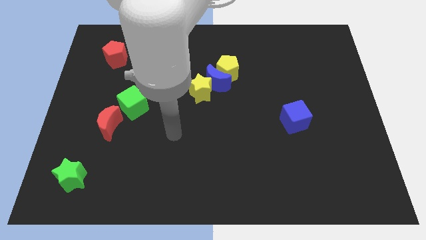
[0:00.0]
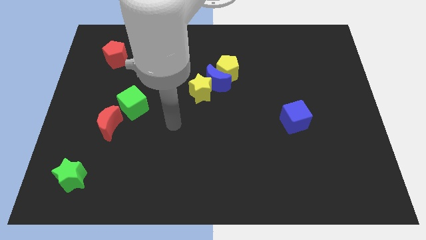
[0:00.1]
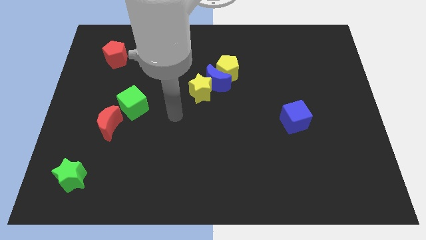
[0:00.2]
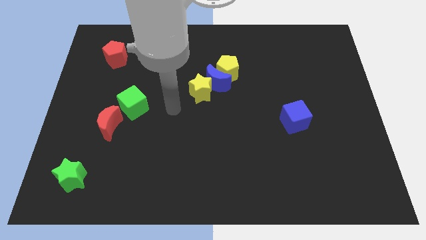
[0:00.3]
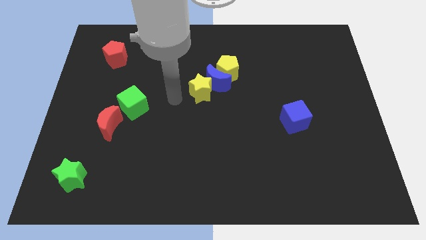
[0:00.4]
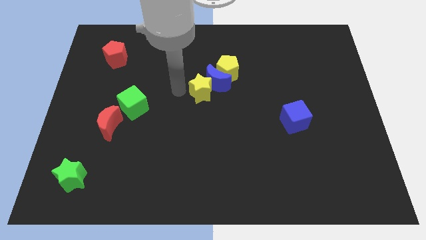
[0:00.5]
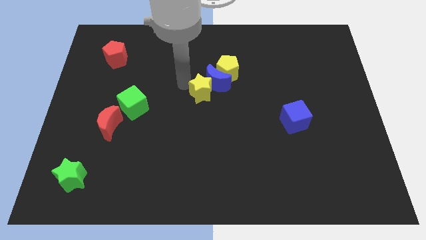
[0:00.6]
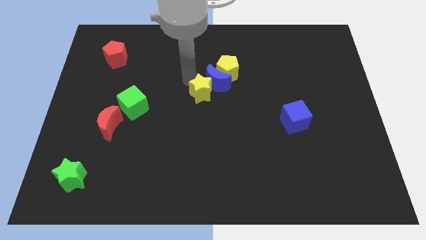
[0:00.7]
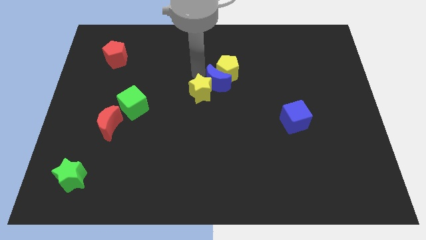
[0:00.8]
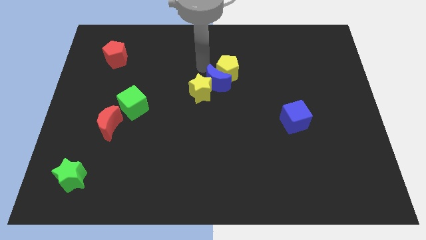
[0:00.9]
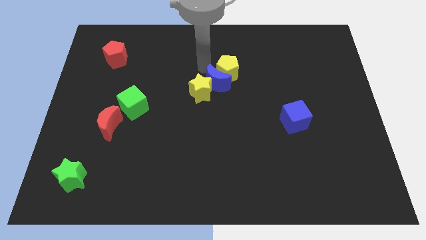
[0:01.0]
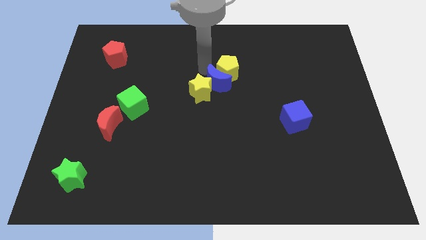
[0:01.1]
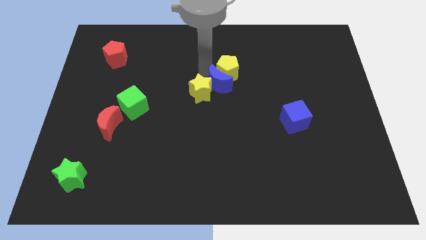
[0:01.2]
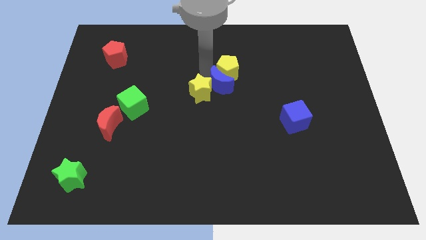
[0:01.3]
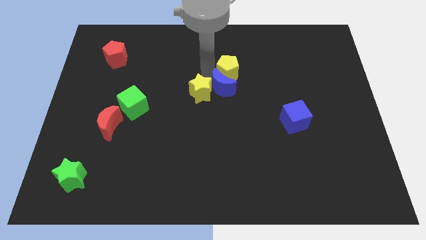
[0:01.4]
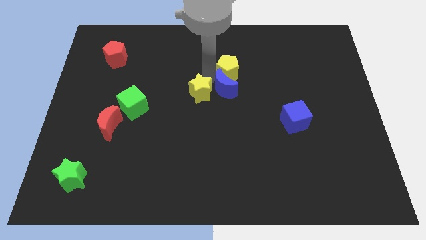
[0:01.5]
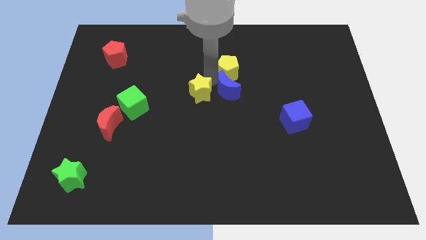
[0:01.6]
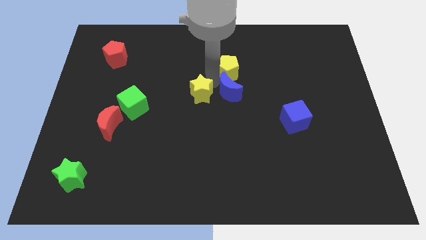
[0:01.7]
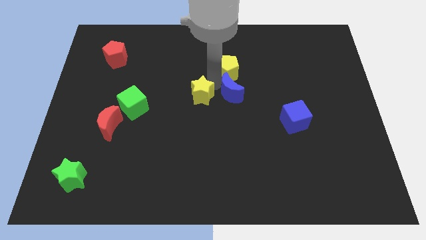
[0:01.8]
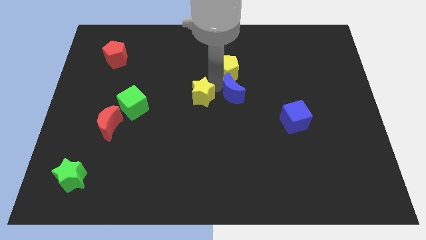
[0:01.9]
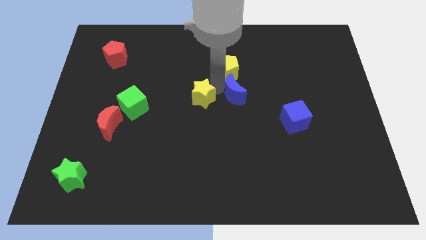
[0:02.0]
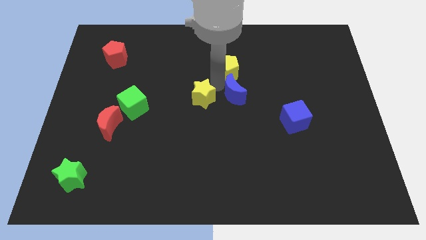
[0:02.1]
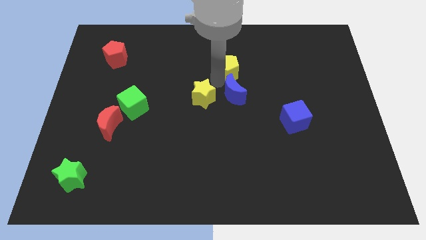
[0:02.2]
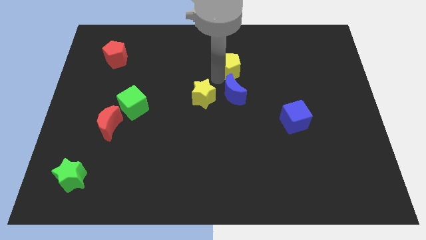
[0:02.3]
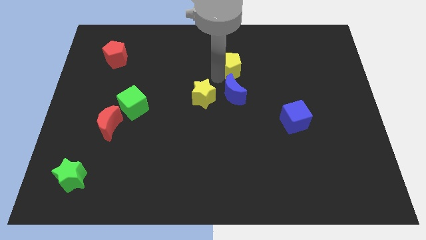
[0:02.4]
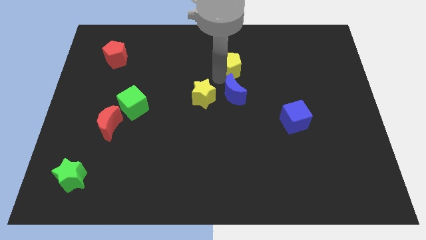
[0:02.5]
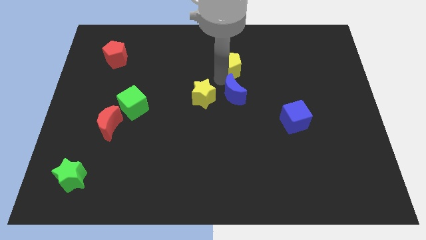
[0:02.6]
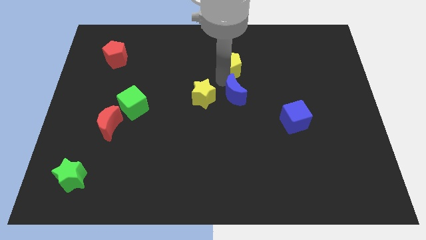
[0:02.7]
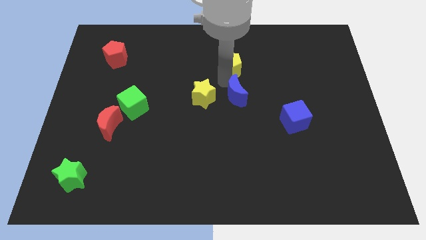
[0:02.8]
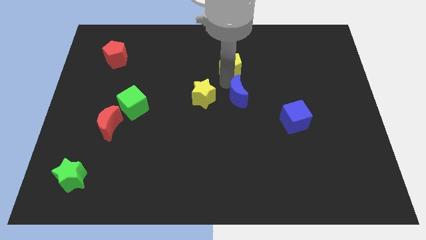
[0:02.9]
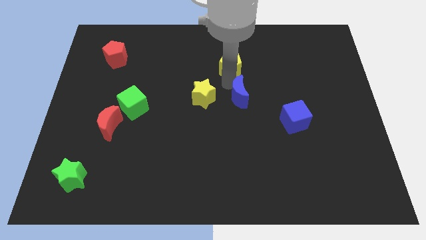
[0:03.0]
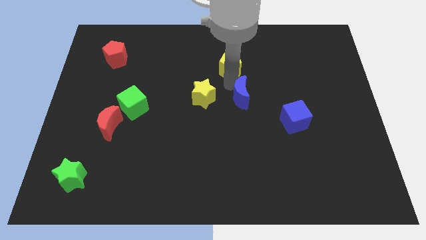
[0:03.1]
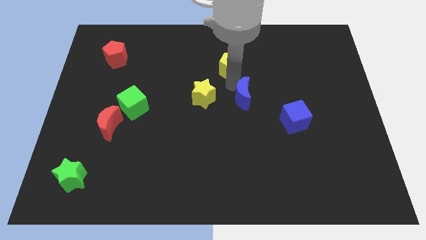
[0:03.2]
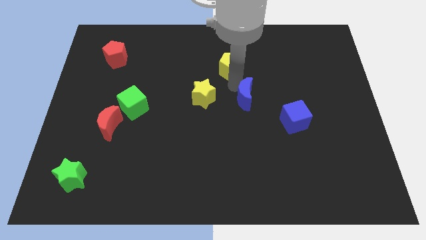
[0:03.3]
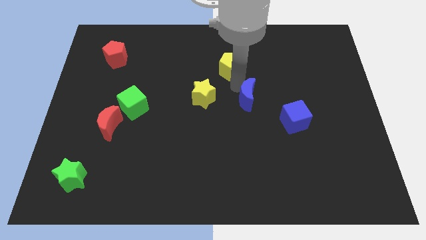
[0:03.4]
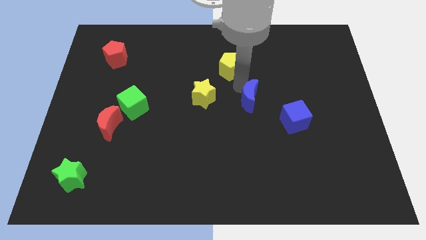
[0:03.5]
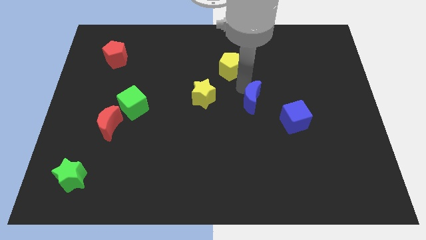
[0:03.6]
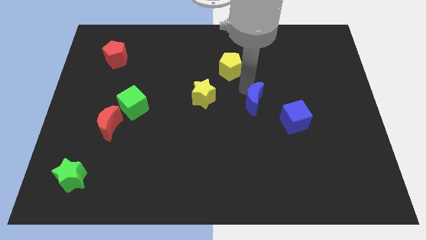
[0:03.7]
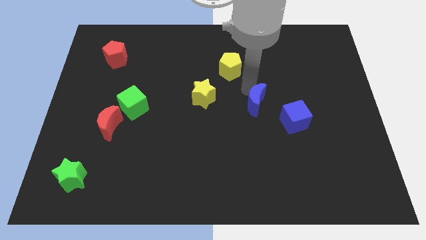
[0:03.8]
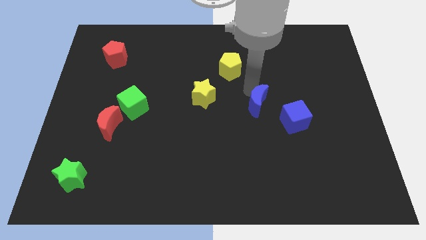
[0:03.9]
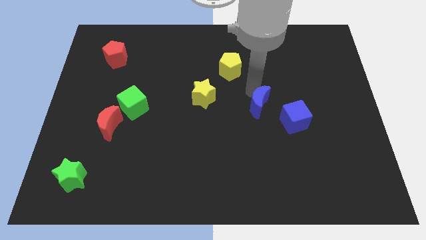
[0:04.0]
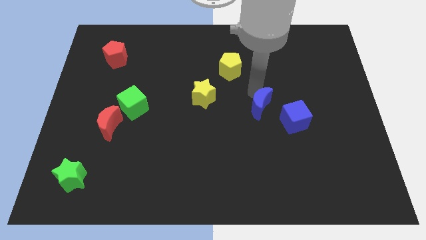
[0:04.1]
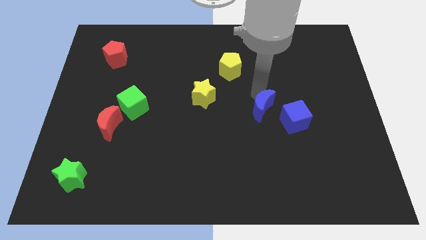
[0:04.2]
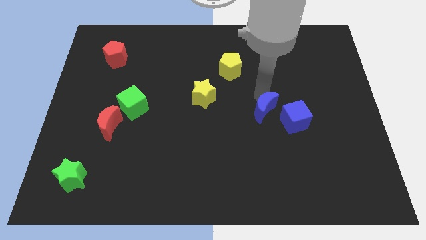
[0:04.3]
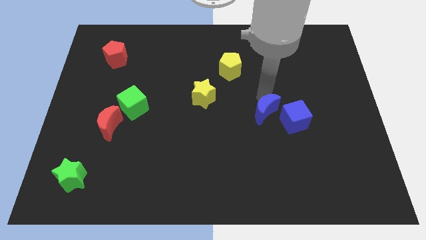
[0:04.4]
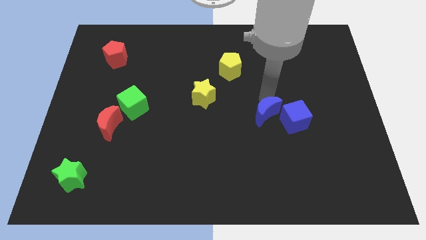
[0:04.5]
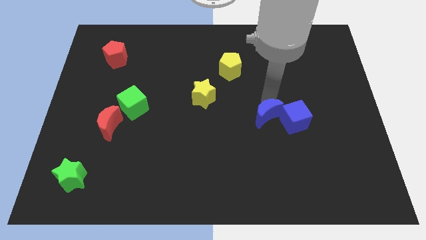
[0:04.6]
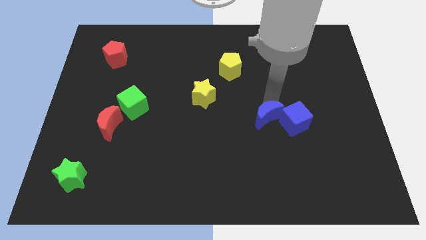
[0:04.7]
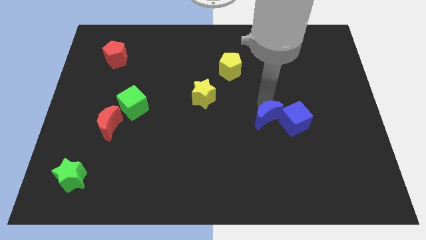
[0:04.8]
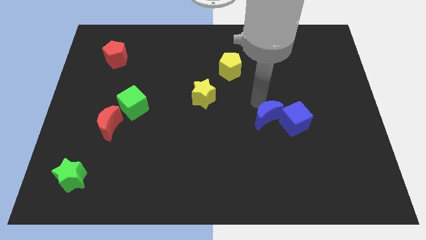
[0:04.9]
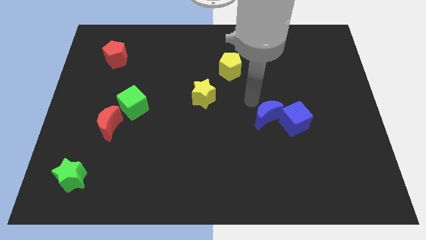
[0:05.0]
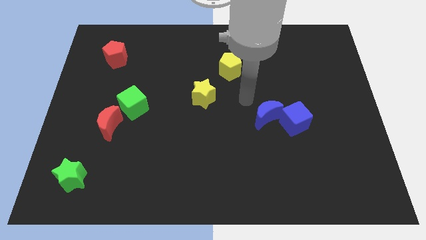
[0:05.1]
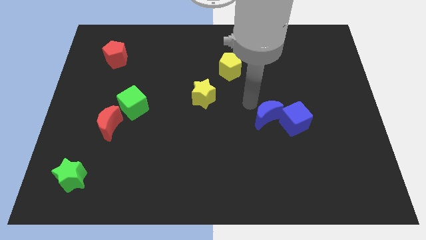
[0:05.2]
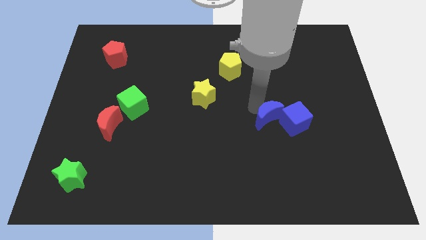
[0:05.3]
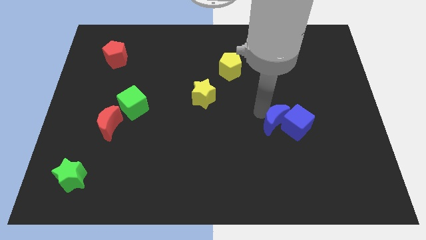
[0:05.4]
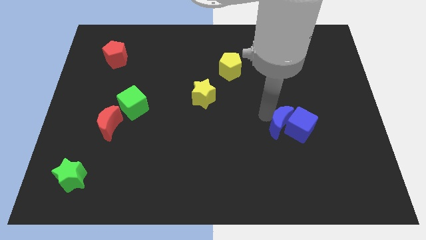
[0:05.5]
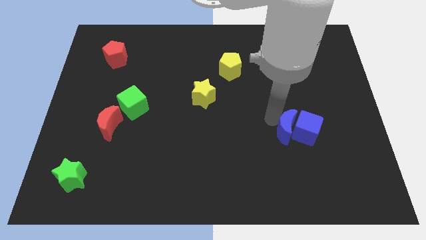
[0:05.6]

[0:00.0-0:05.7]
slide the blue moon diagonally downwards and right

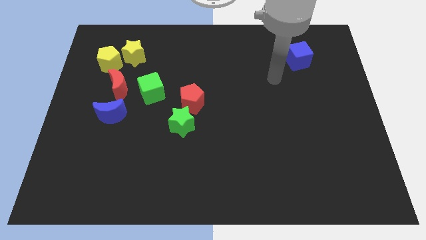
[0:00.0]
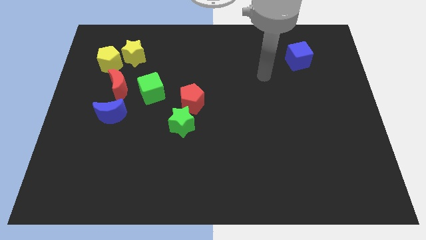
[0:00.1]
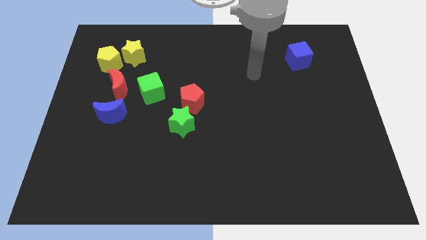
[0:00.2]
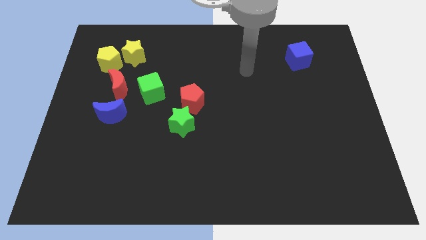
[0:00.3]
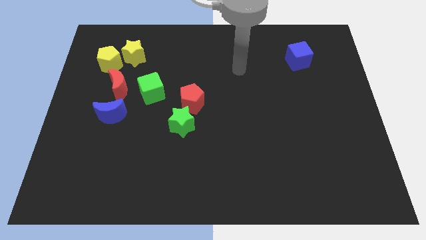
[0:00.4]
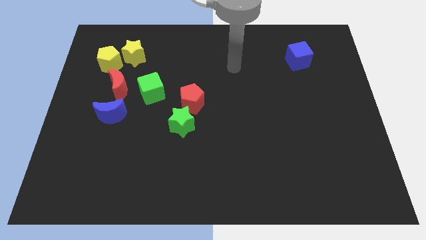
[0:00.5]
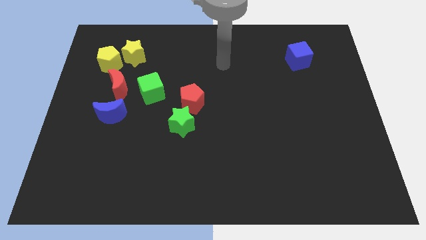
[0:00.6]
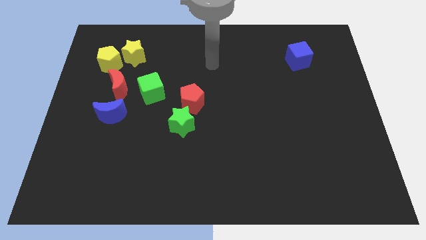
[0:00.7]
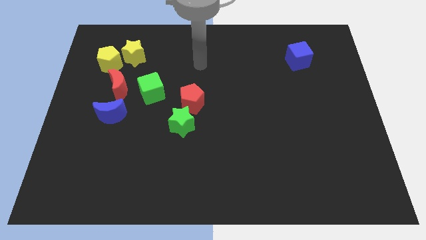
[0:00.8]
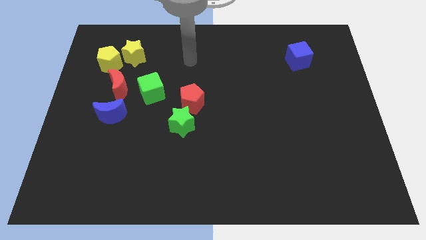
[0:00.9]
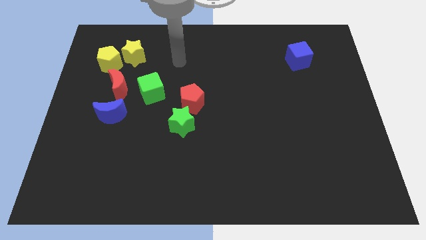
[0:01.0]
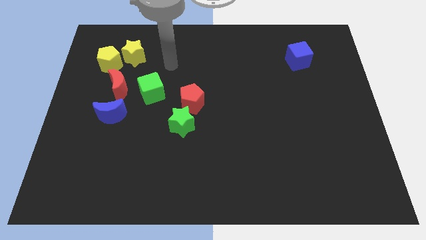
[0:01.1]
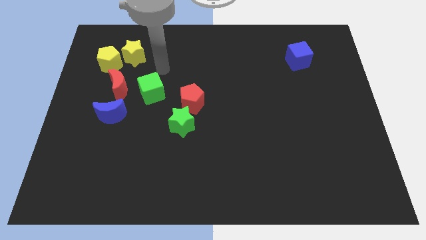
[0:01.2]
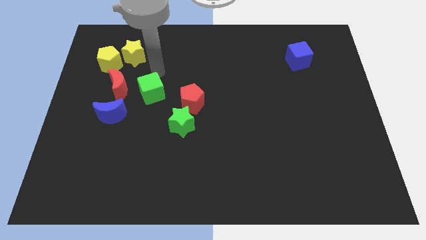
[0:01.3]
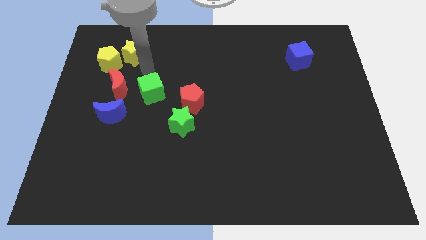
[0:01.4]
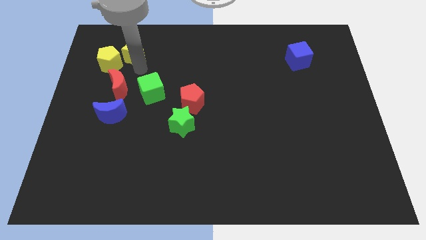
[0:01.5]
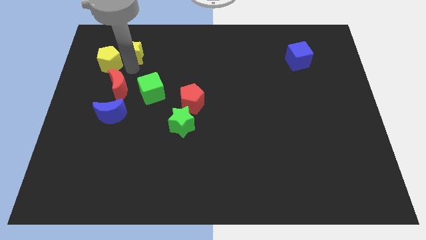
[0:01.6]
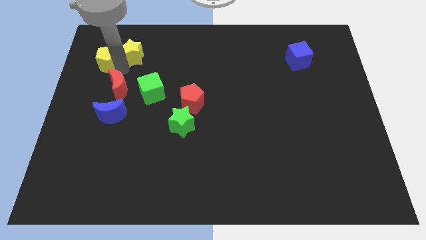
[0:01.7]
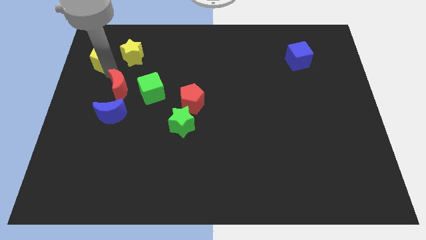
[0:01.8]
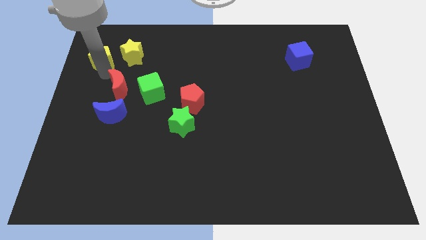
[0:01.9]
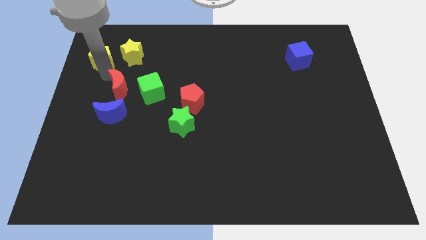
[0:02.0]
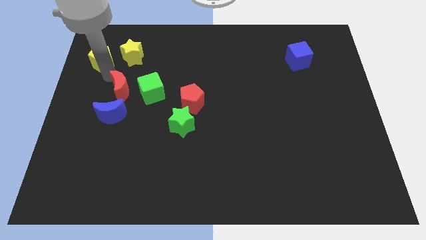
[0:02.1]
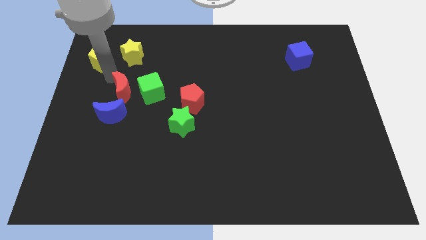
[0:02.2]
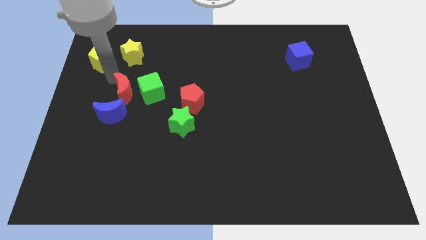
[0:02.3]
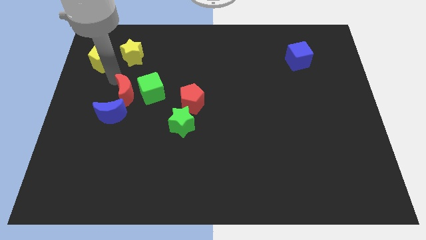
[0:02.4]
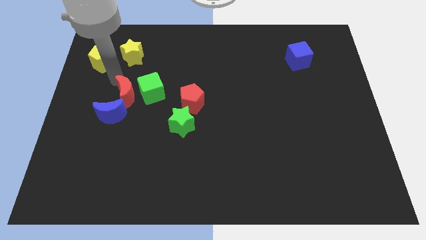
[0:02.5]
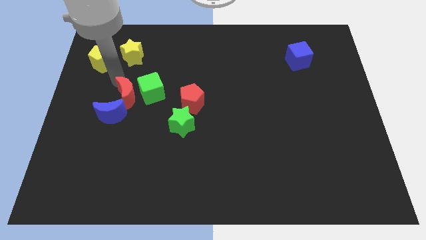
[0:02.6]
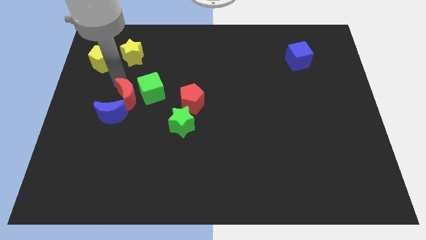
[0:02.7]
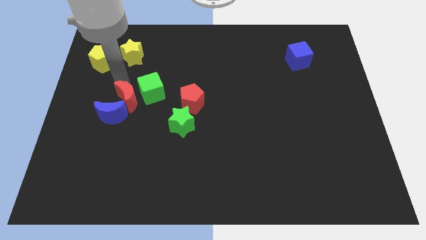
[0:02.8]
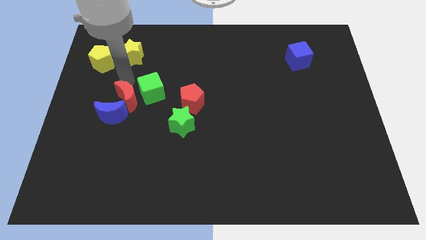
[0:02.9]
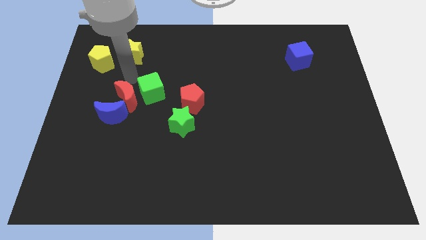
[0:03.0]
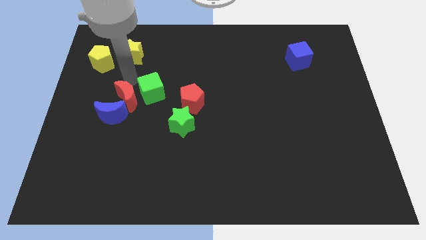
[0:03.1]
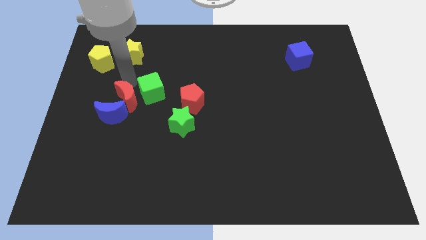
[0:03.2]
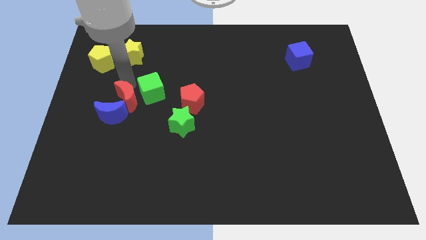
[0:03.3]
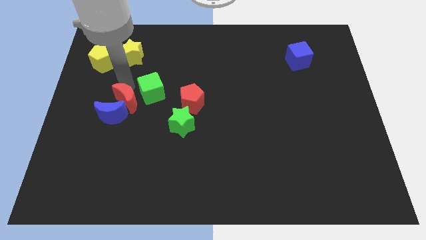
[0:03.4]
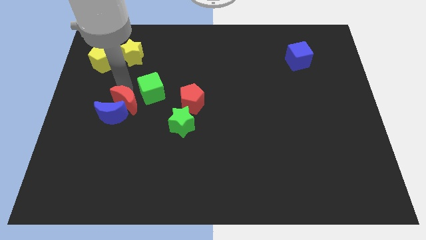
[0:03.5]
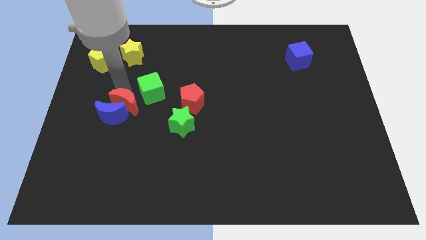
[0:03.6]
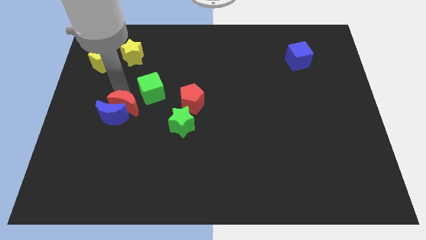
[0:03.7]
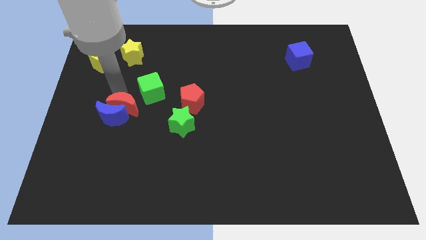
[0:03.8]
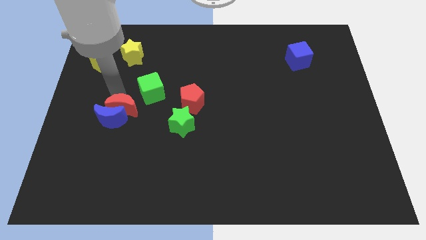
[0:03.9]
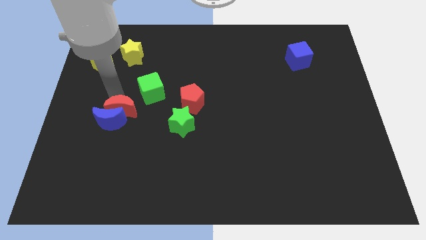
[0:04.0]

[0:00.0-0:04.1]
push the red moon a little down
